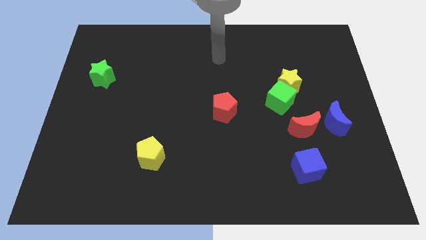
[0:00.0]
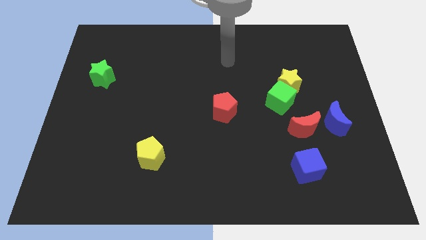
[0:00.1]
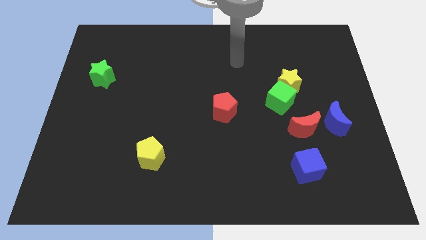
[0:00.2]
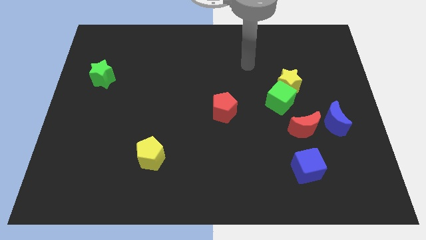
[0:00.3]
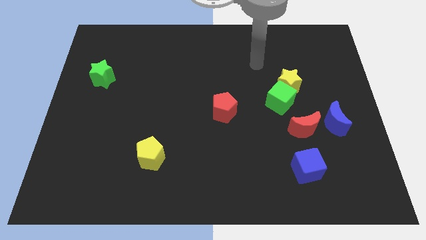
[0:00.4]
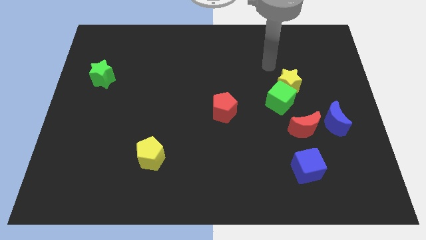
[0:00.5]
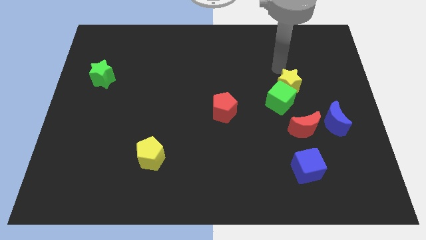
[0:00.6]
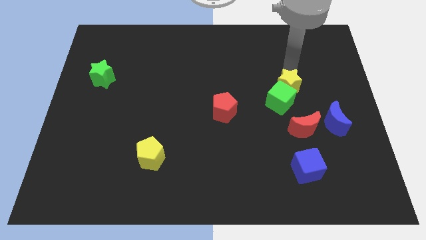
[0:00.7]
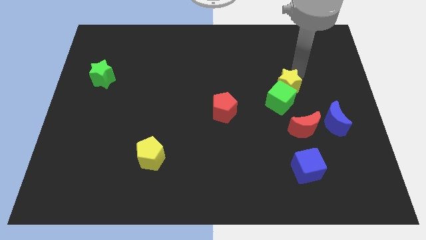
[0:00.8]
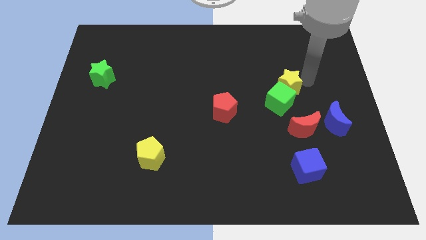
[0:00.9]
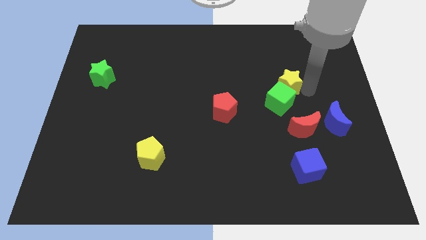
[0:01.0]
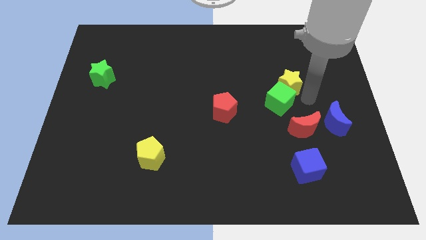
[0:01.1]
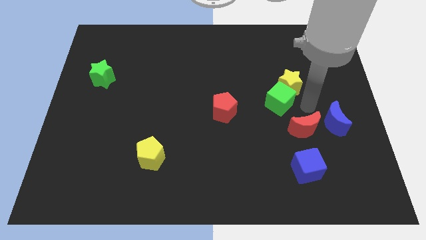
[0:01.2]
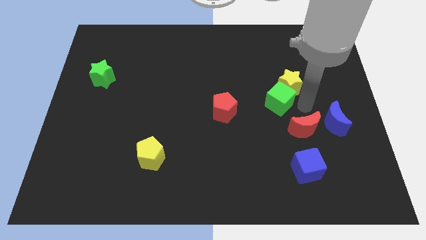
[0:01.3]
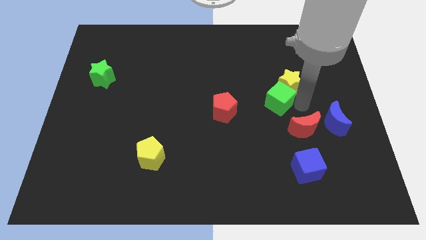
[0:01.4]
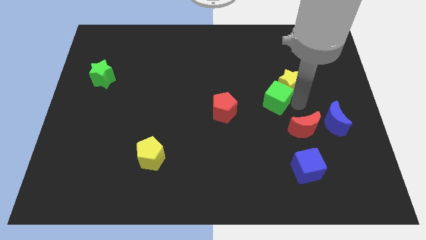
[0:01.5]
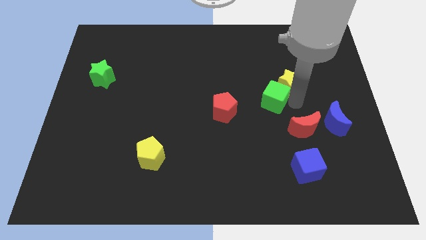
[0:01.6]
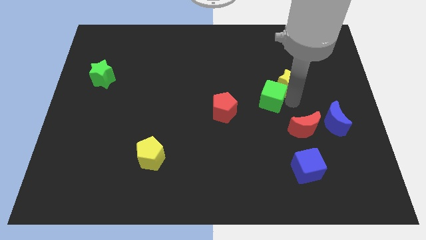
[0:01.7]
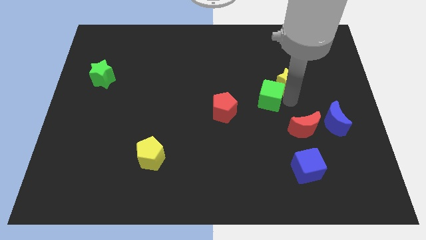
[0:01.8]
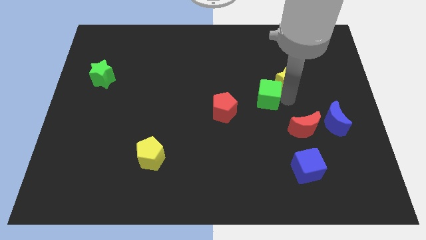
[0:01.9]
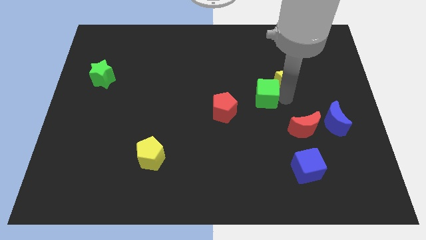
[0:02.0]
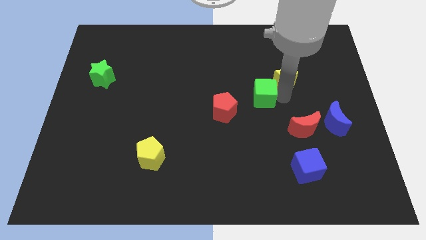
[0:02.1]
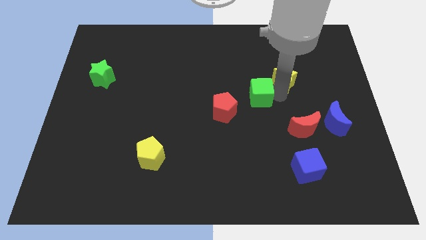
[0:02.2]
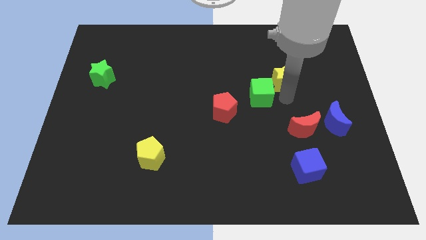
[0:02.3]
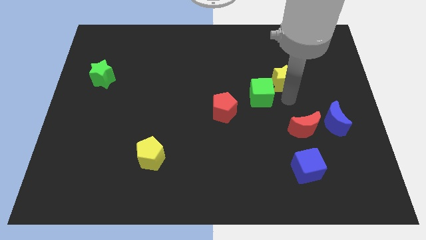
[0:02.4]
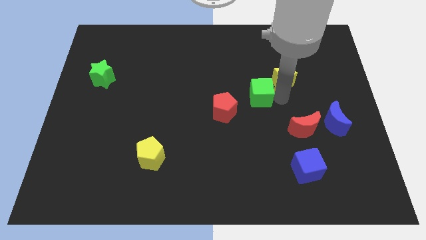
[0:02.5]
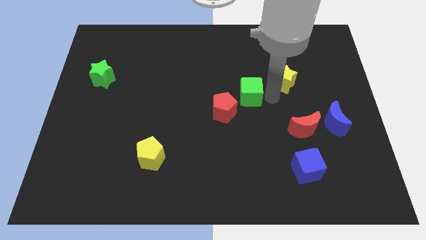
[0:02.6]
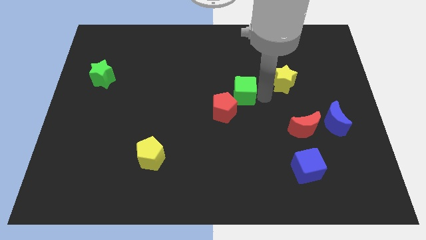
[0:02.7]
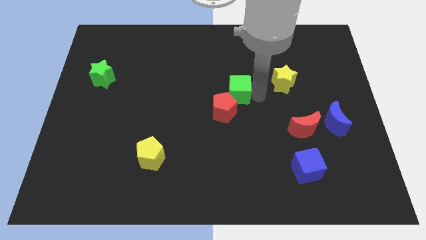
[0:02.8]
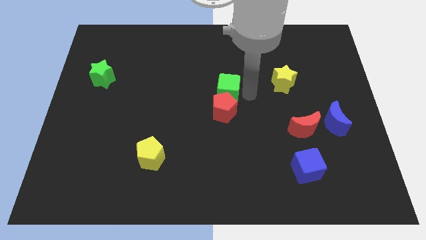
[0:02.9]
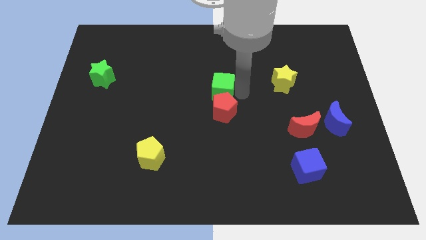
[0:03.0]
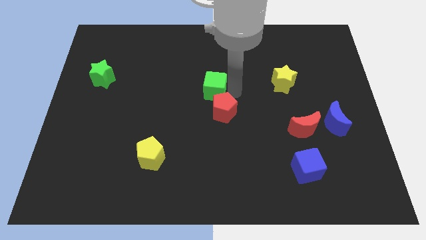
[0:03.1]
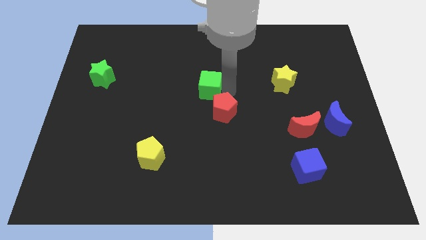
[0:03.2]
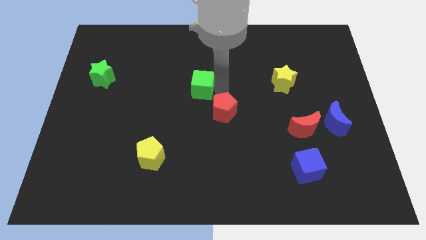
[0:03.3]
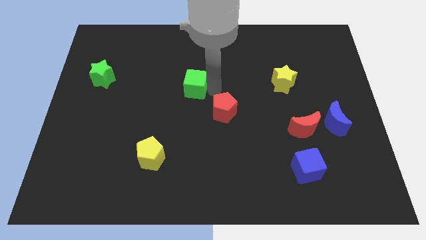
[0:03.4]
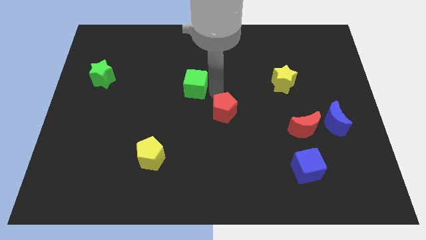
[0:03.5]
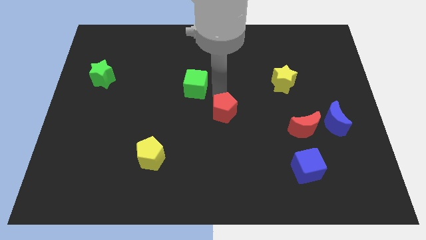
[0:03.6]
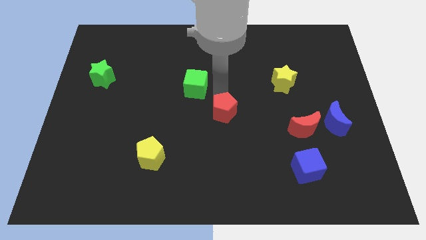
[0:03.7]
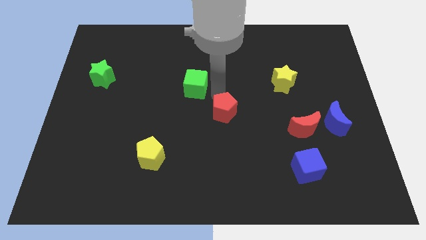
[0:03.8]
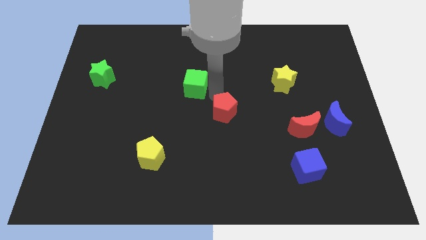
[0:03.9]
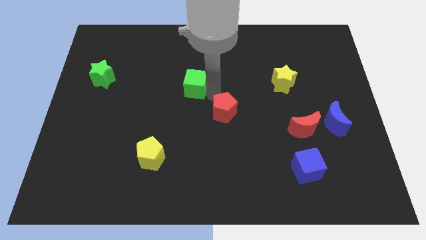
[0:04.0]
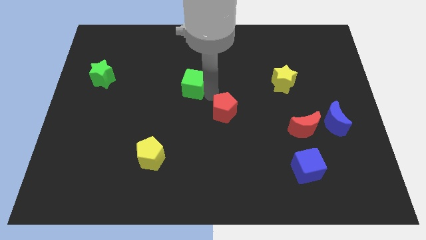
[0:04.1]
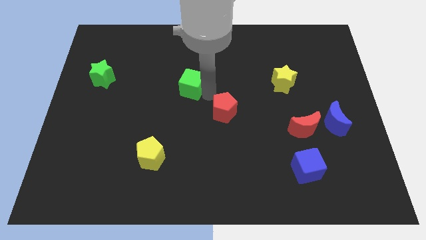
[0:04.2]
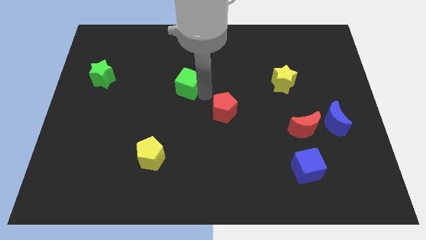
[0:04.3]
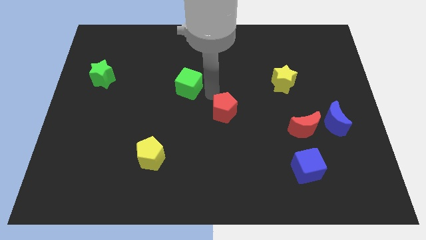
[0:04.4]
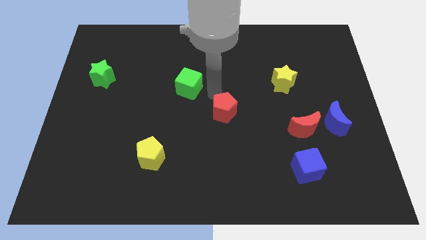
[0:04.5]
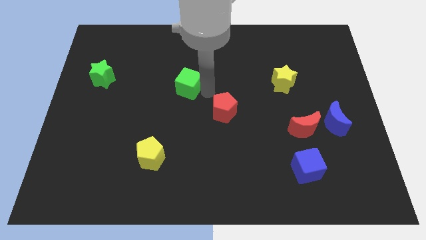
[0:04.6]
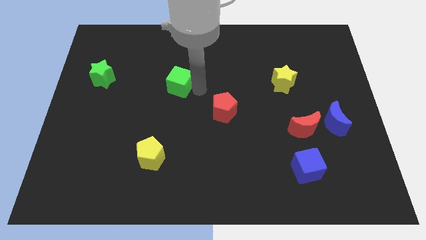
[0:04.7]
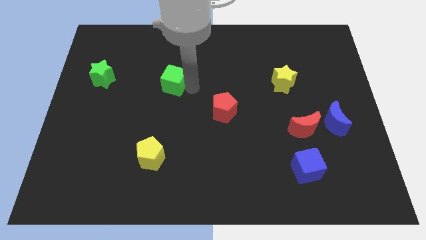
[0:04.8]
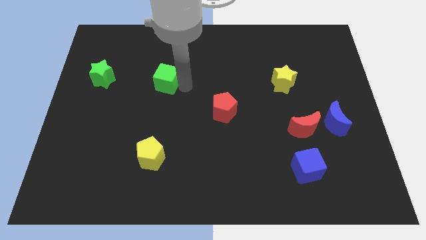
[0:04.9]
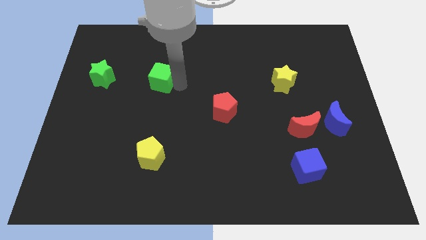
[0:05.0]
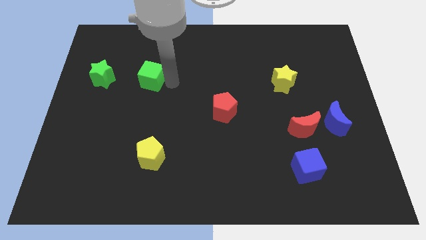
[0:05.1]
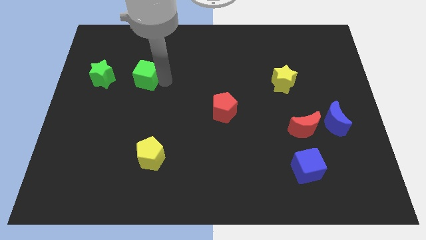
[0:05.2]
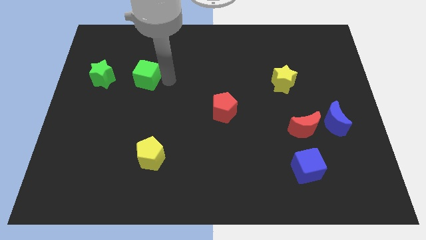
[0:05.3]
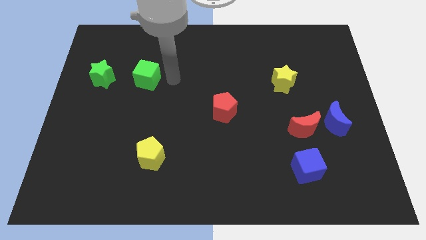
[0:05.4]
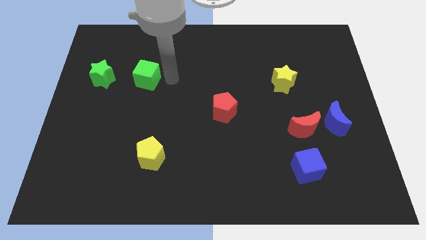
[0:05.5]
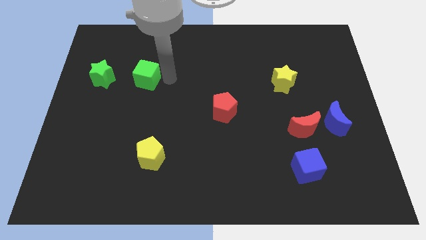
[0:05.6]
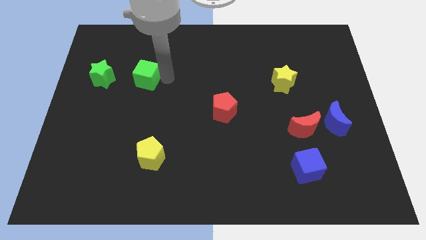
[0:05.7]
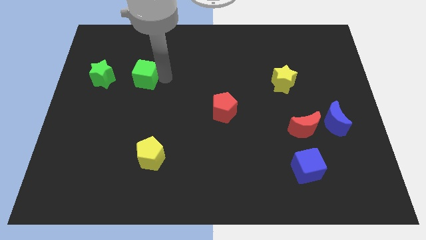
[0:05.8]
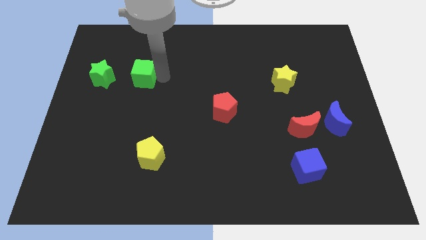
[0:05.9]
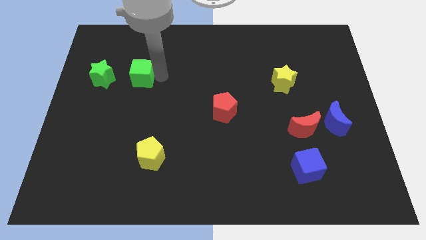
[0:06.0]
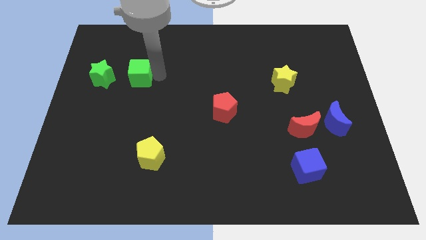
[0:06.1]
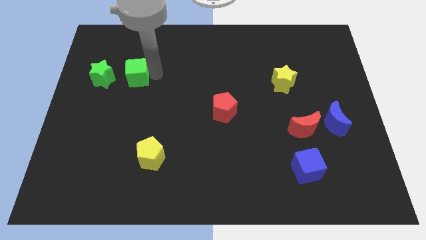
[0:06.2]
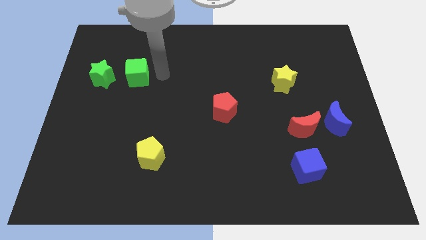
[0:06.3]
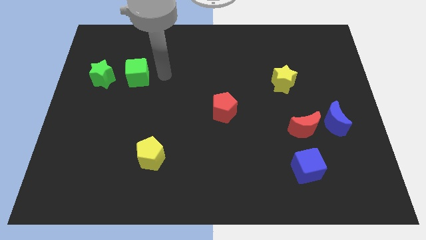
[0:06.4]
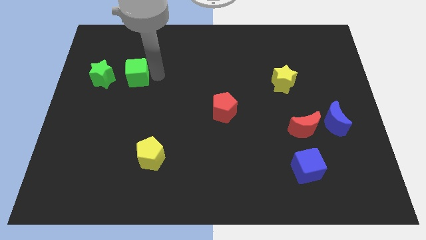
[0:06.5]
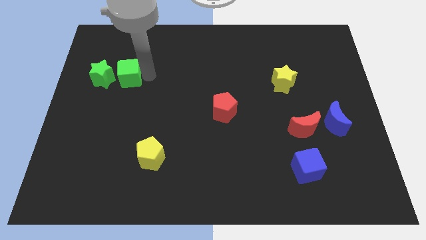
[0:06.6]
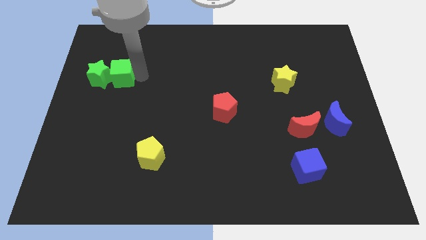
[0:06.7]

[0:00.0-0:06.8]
push the green cube to the green star

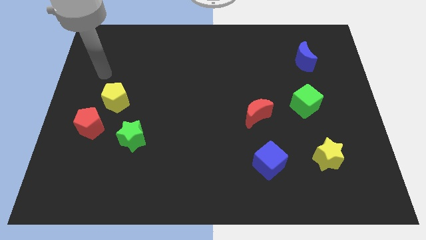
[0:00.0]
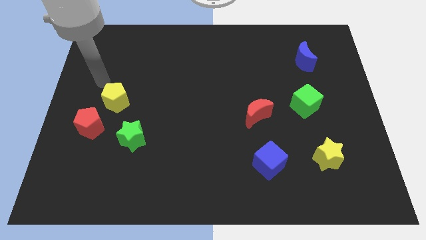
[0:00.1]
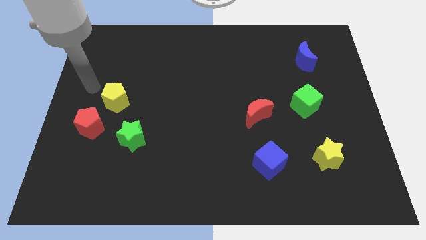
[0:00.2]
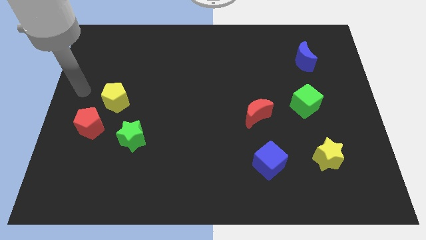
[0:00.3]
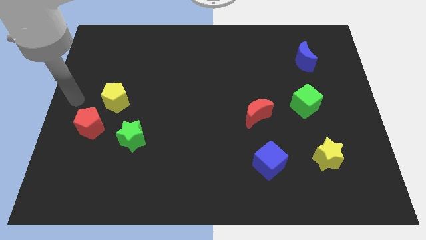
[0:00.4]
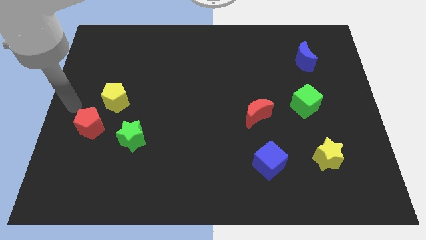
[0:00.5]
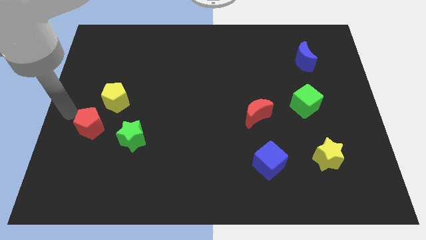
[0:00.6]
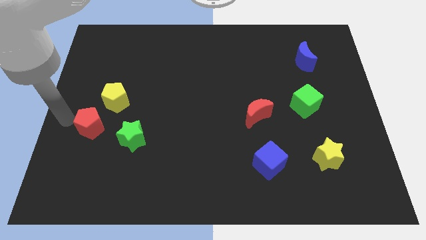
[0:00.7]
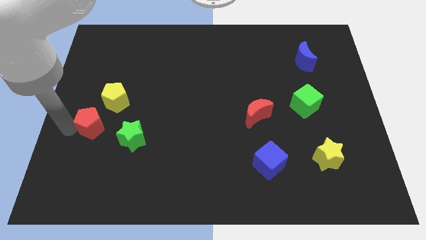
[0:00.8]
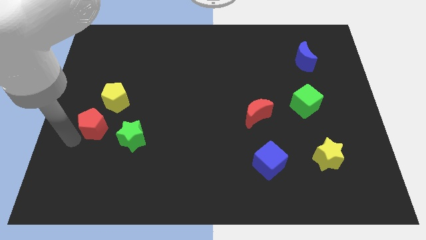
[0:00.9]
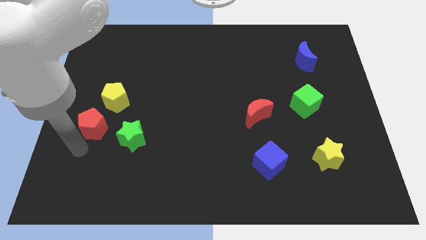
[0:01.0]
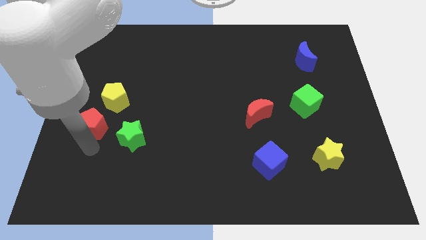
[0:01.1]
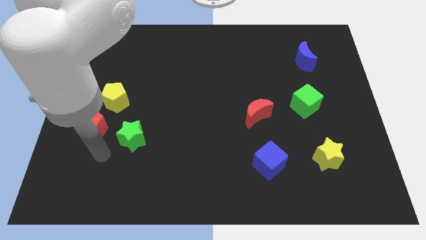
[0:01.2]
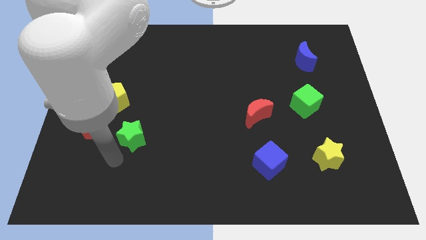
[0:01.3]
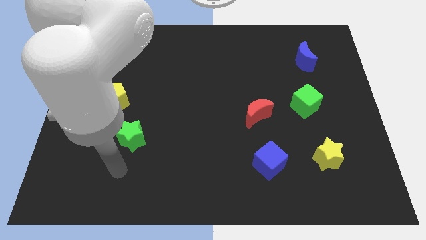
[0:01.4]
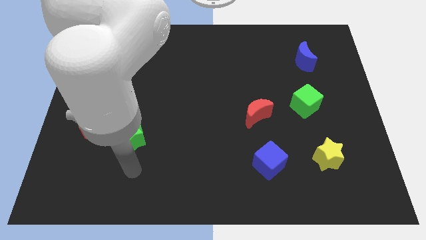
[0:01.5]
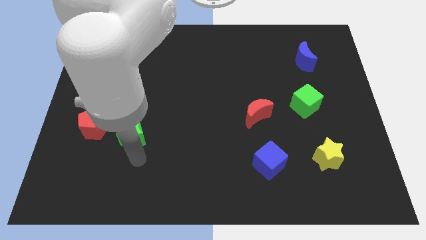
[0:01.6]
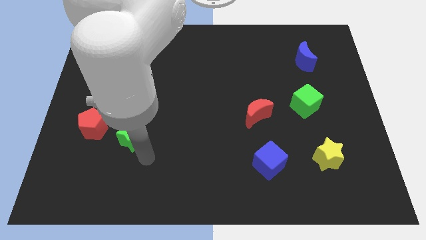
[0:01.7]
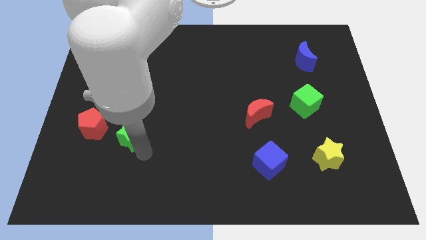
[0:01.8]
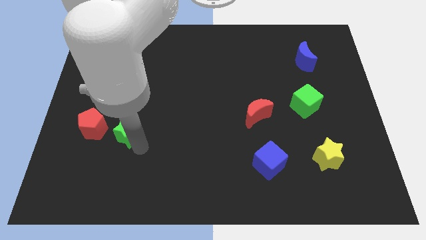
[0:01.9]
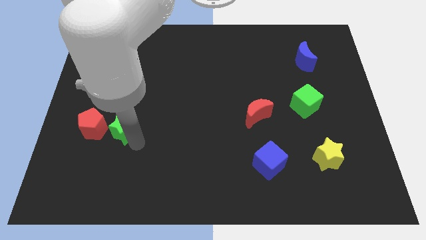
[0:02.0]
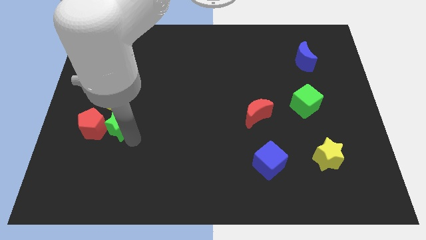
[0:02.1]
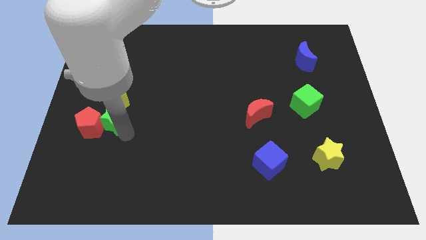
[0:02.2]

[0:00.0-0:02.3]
slide the green star close to the yellow pentagon
